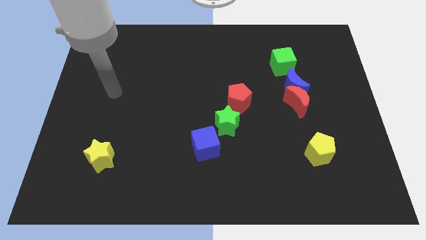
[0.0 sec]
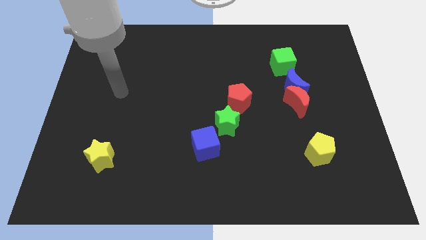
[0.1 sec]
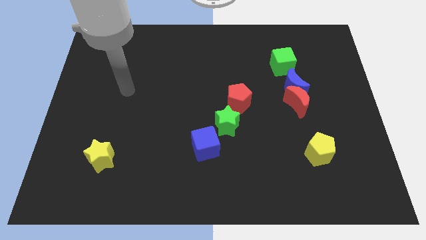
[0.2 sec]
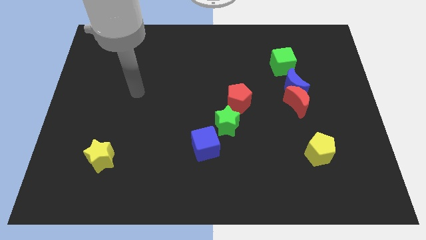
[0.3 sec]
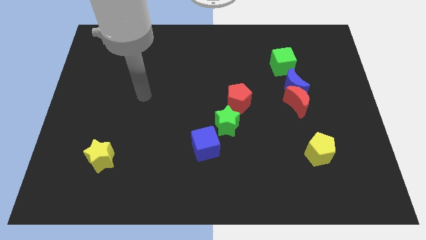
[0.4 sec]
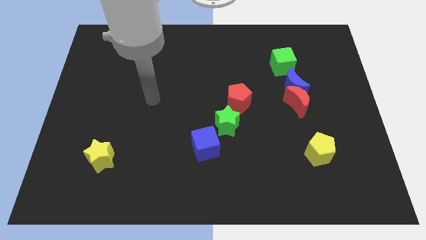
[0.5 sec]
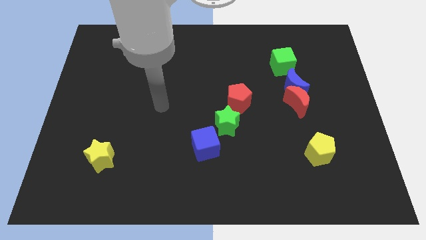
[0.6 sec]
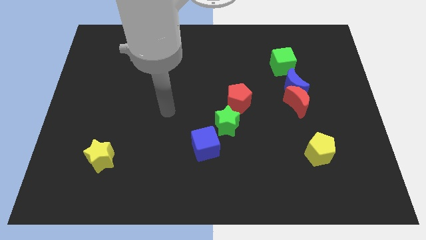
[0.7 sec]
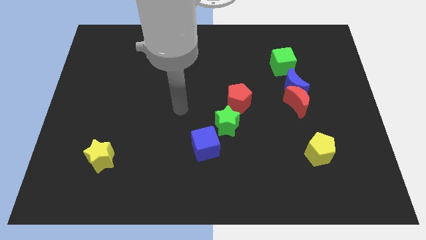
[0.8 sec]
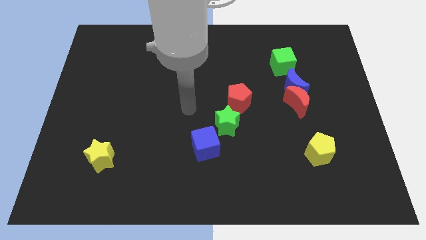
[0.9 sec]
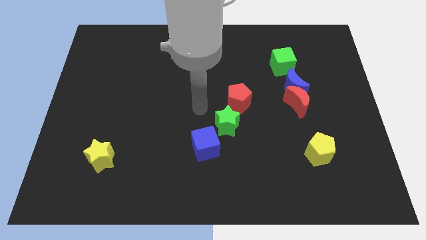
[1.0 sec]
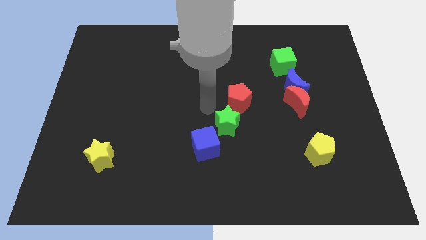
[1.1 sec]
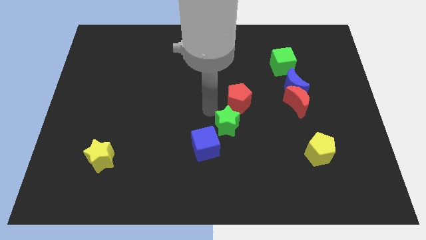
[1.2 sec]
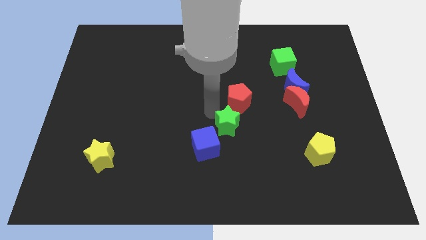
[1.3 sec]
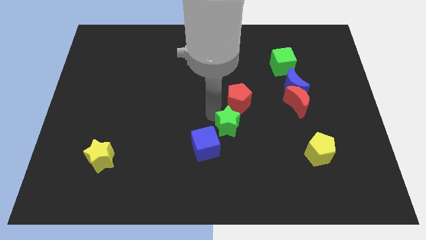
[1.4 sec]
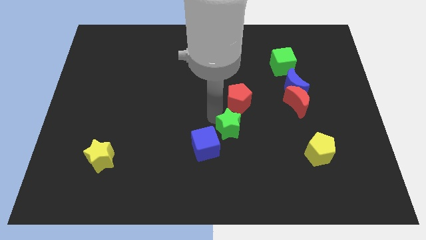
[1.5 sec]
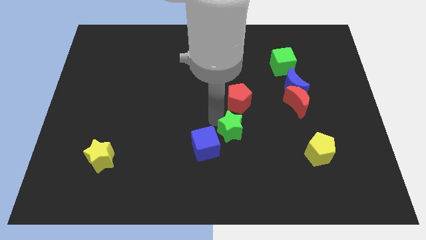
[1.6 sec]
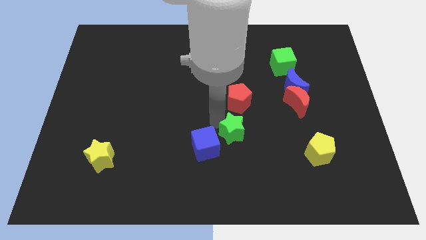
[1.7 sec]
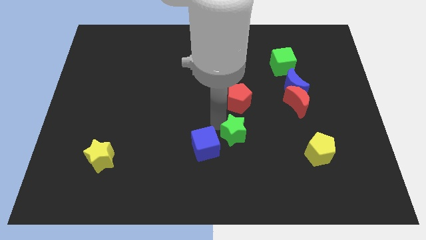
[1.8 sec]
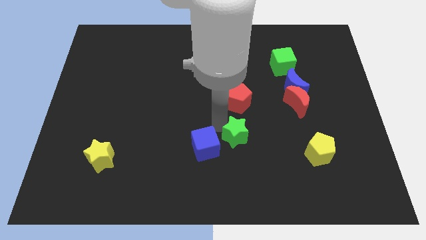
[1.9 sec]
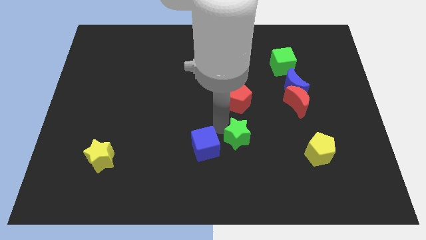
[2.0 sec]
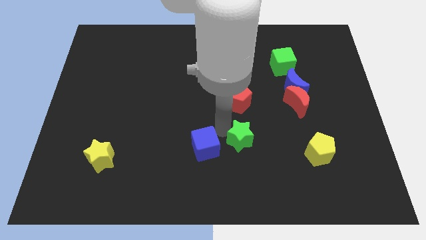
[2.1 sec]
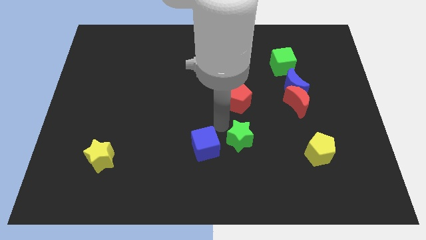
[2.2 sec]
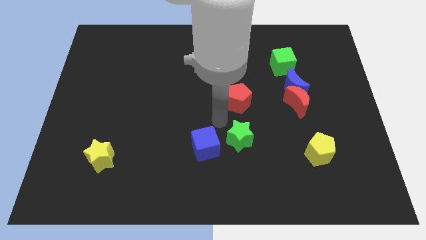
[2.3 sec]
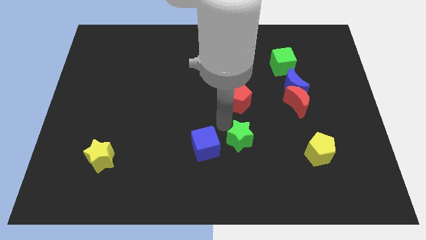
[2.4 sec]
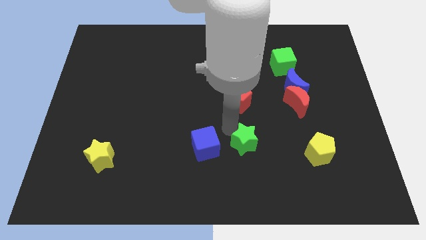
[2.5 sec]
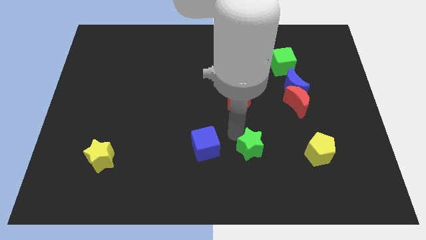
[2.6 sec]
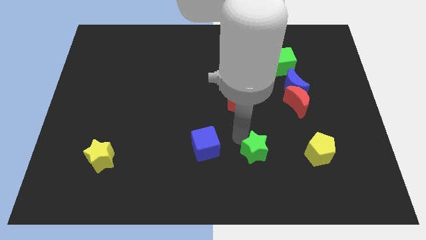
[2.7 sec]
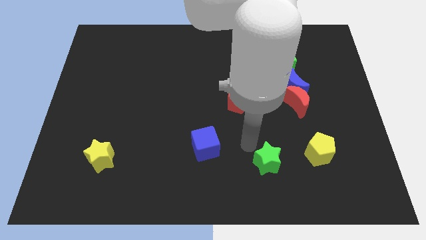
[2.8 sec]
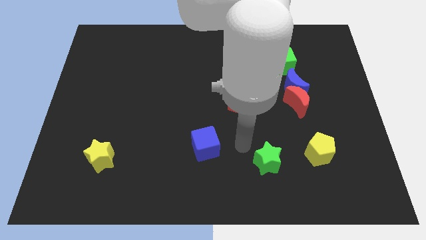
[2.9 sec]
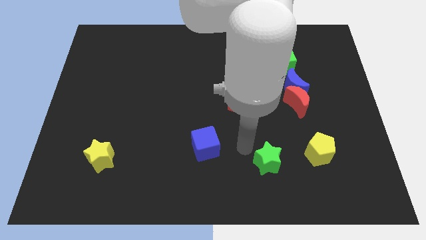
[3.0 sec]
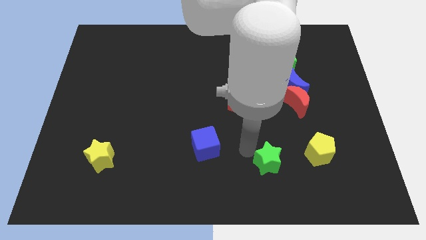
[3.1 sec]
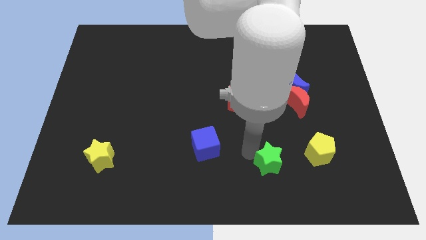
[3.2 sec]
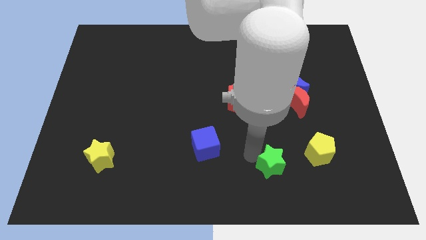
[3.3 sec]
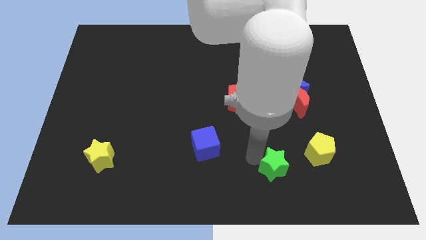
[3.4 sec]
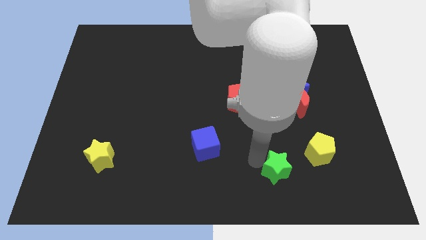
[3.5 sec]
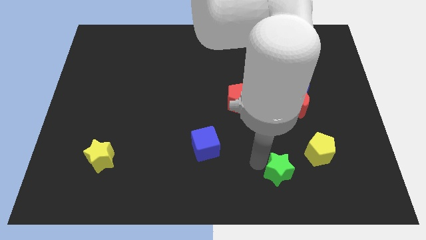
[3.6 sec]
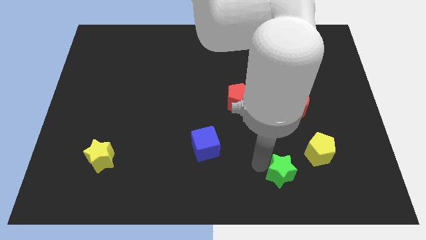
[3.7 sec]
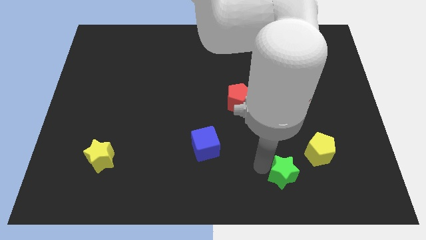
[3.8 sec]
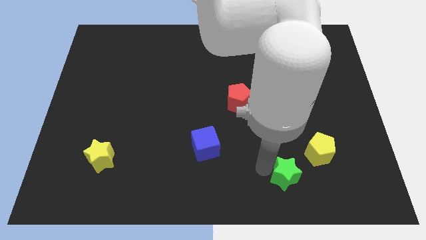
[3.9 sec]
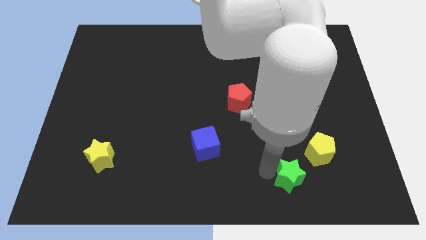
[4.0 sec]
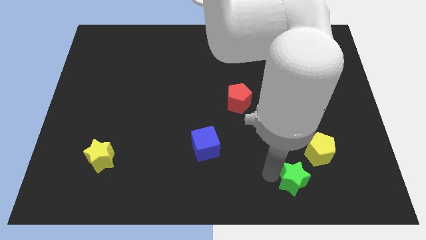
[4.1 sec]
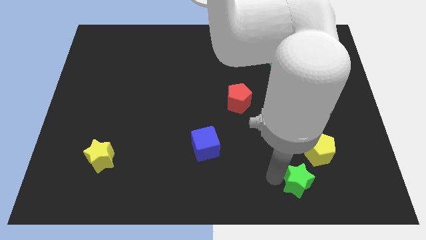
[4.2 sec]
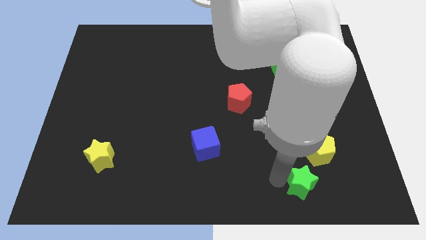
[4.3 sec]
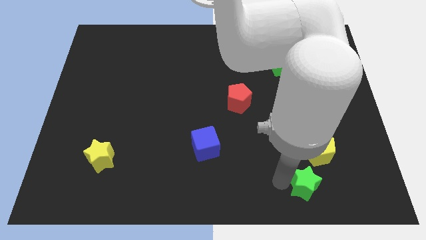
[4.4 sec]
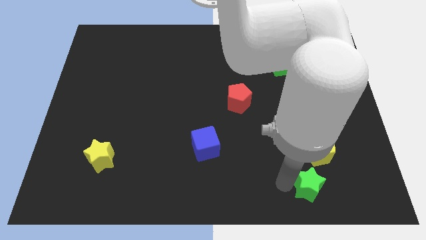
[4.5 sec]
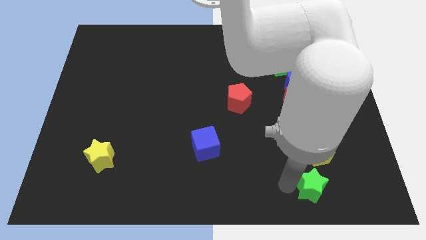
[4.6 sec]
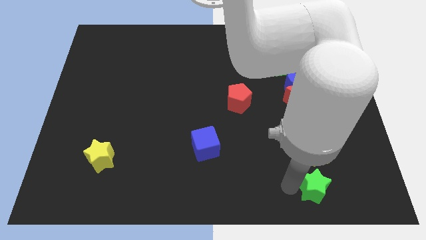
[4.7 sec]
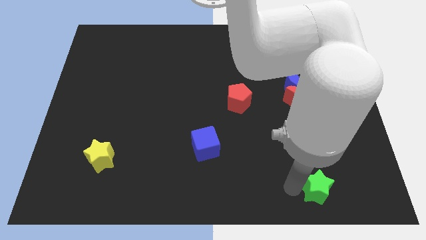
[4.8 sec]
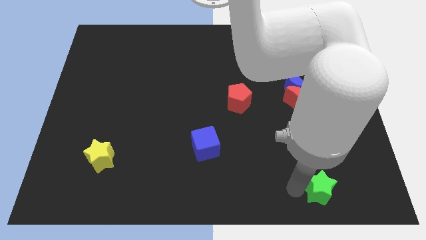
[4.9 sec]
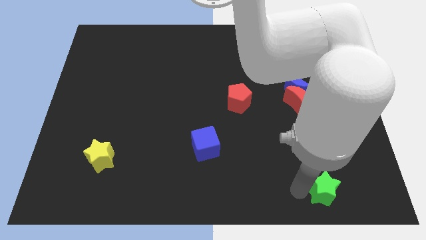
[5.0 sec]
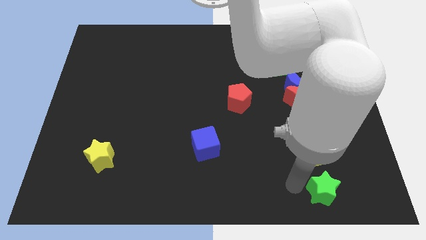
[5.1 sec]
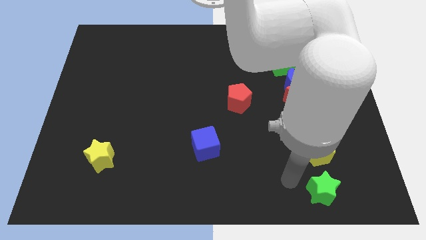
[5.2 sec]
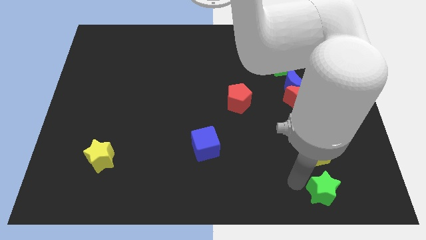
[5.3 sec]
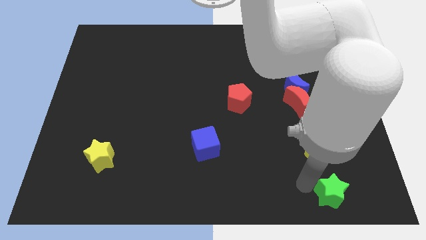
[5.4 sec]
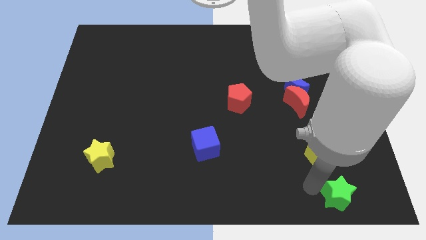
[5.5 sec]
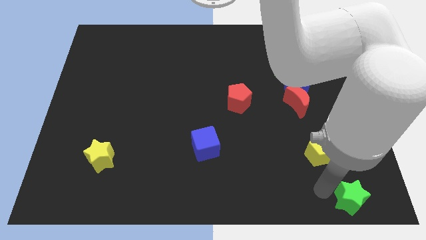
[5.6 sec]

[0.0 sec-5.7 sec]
move the green star to the bottom right
